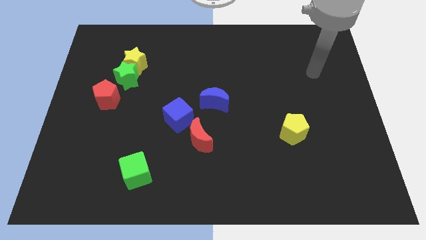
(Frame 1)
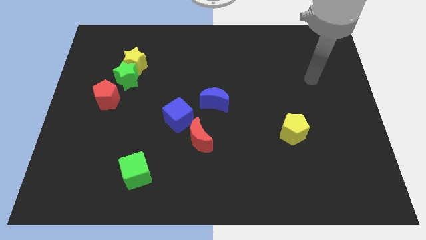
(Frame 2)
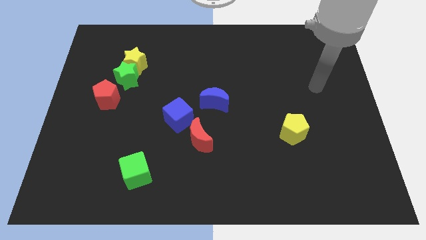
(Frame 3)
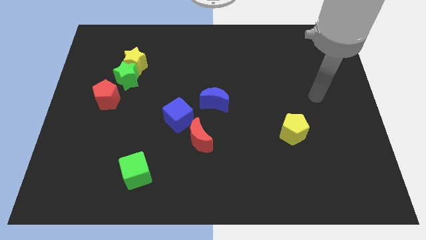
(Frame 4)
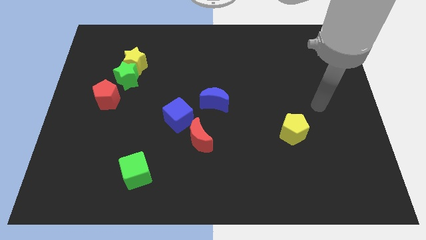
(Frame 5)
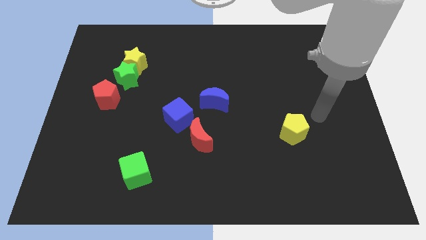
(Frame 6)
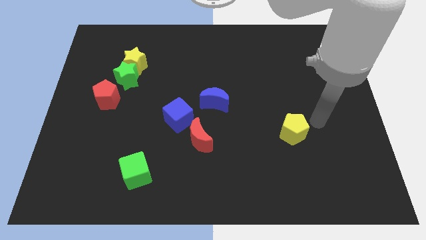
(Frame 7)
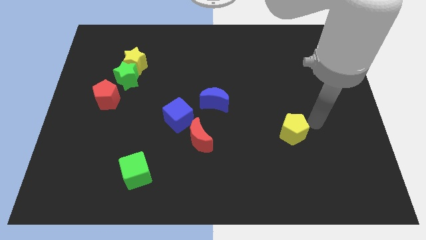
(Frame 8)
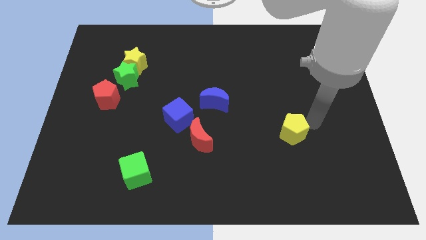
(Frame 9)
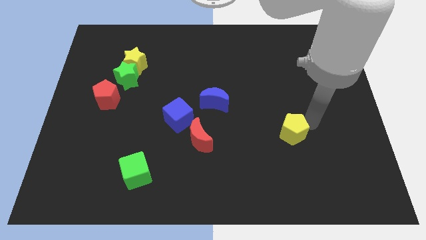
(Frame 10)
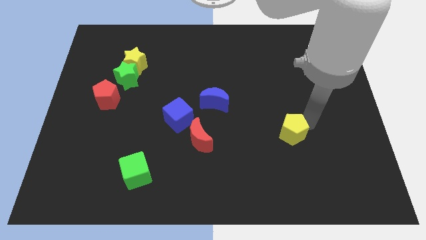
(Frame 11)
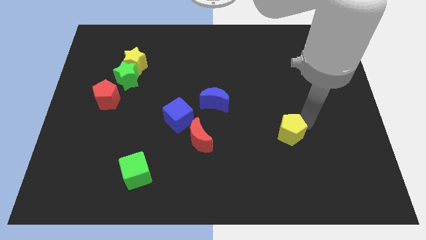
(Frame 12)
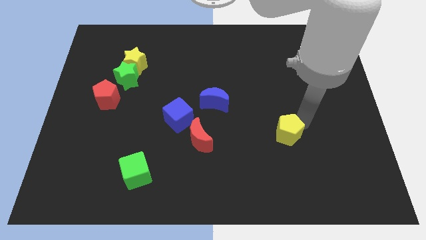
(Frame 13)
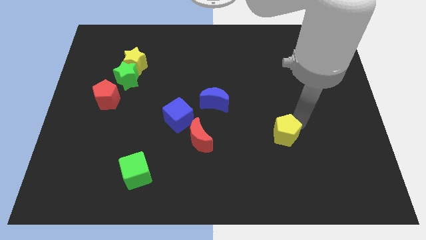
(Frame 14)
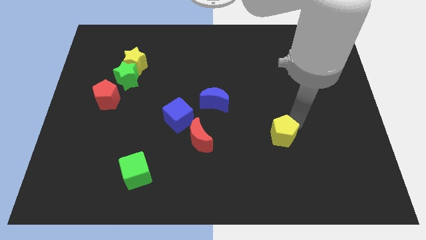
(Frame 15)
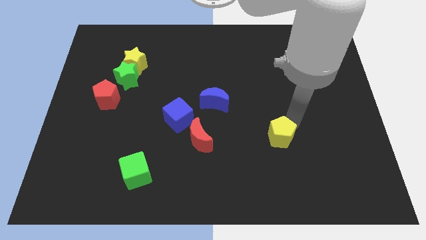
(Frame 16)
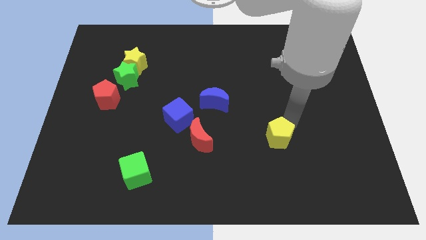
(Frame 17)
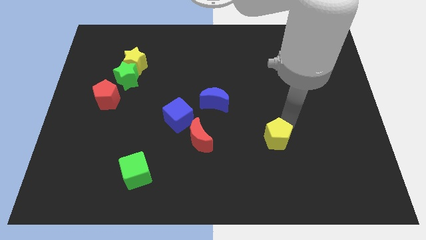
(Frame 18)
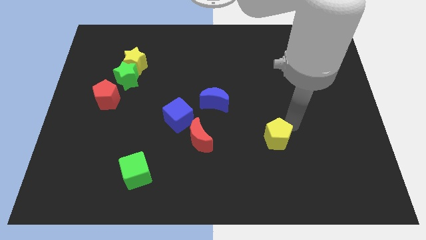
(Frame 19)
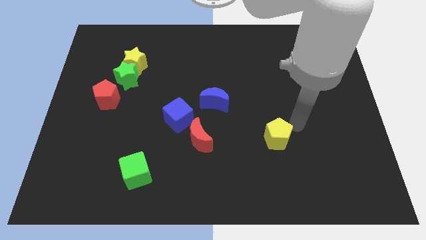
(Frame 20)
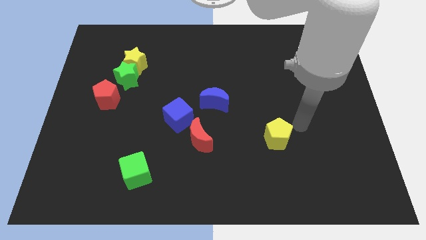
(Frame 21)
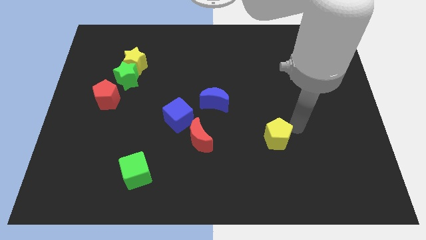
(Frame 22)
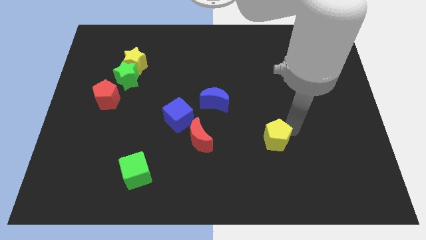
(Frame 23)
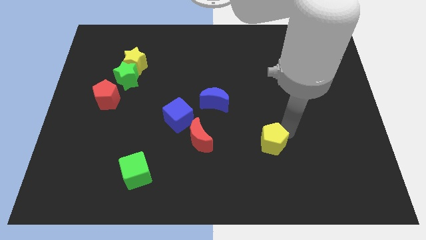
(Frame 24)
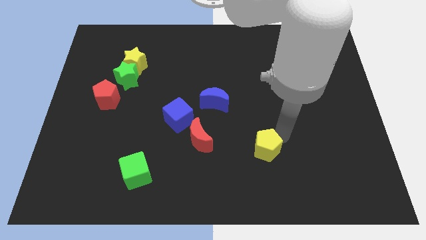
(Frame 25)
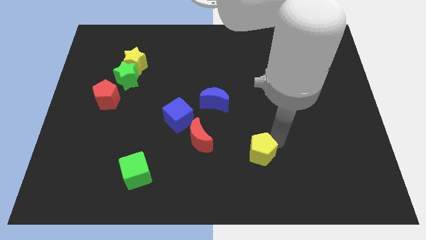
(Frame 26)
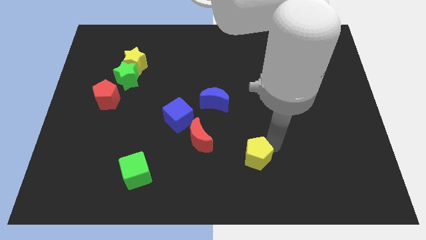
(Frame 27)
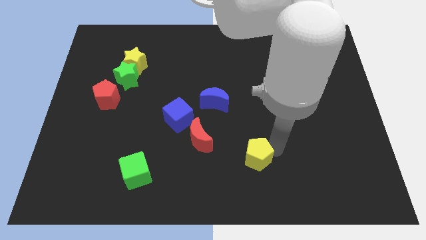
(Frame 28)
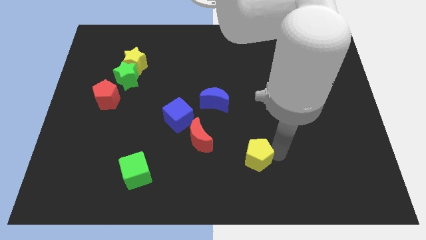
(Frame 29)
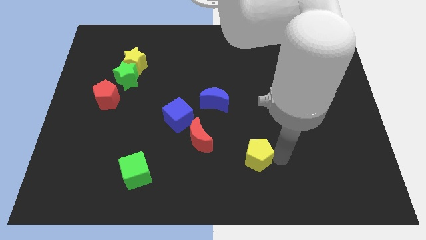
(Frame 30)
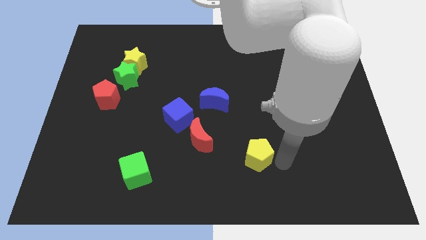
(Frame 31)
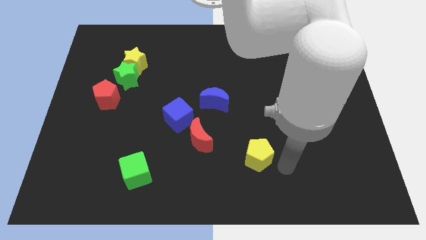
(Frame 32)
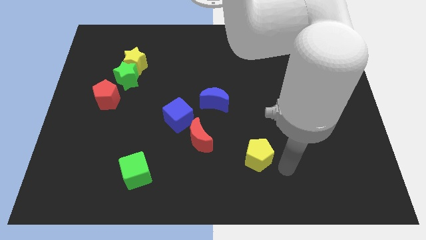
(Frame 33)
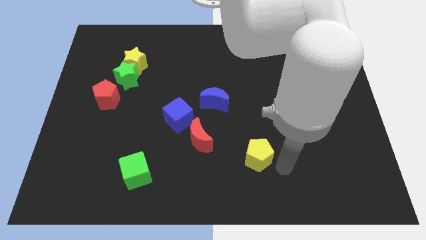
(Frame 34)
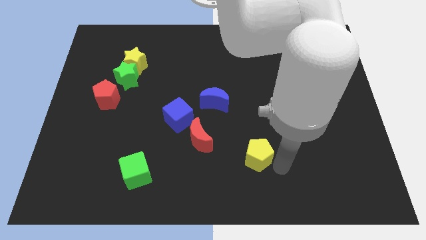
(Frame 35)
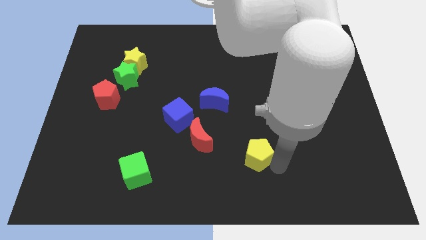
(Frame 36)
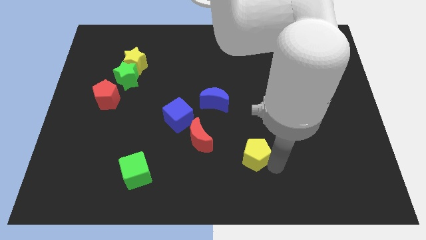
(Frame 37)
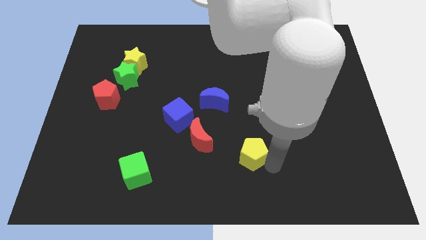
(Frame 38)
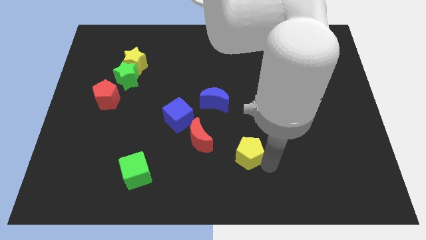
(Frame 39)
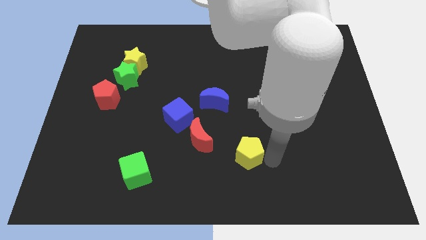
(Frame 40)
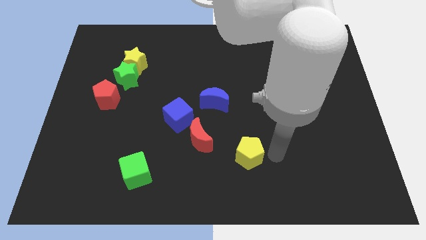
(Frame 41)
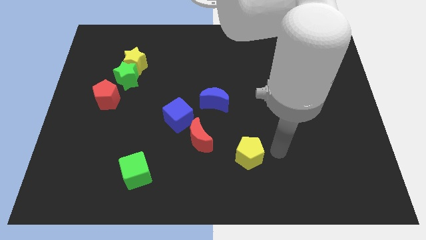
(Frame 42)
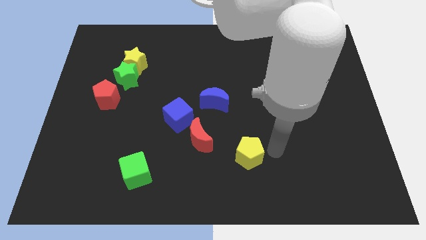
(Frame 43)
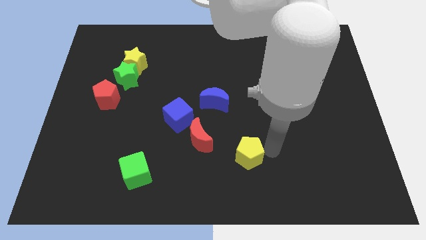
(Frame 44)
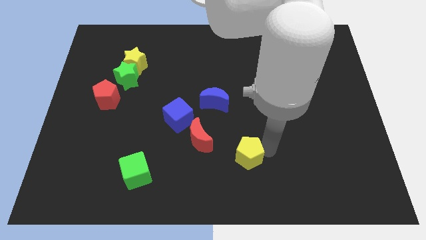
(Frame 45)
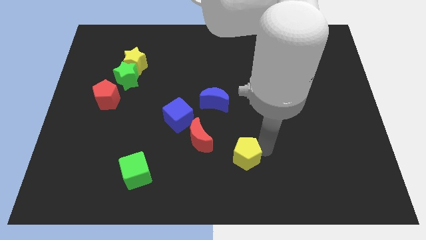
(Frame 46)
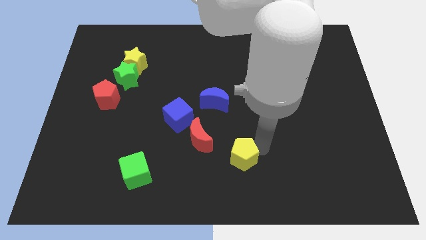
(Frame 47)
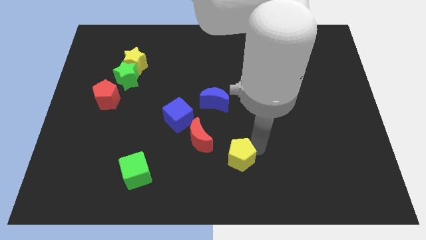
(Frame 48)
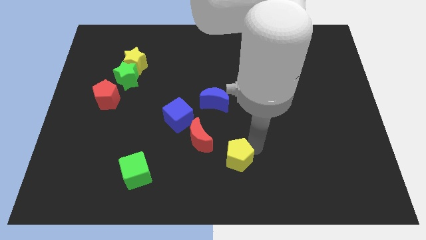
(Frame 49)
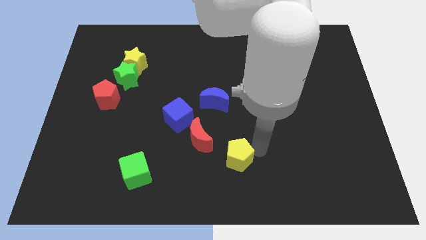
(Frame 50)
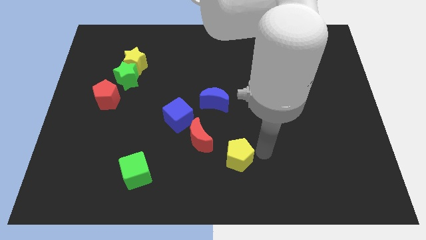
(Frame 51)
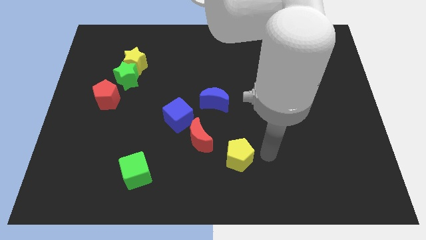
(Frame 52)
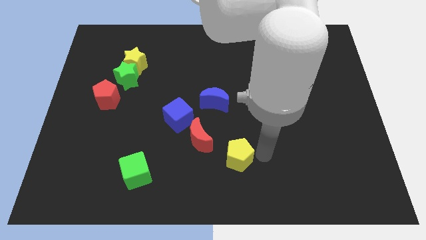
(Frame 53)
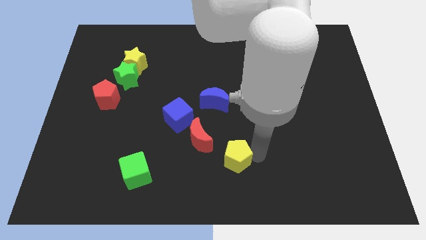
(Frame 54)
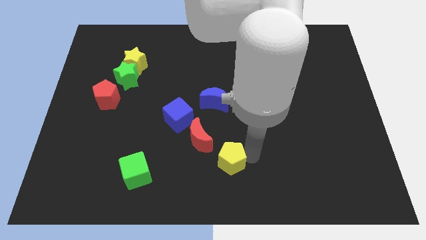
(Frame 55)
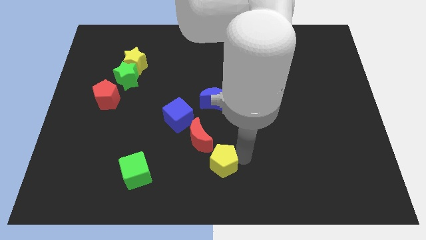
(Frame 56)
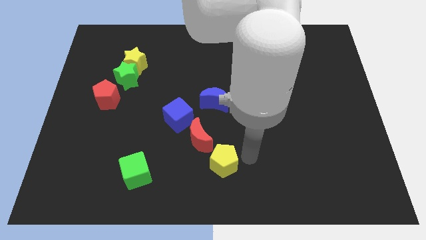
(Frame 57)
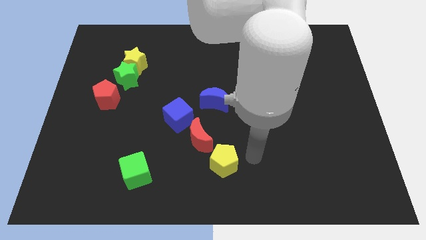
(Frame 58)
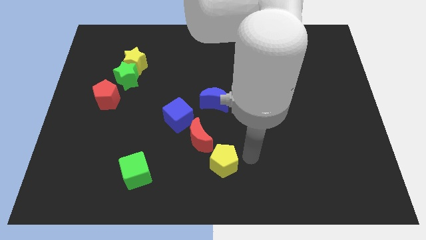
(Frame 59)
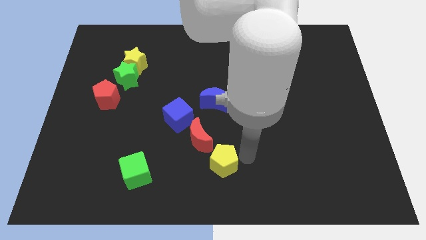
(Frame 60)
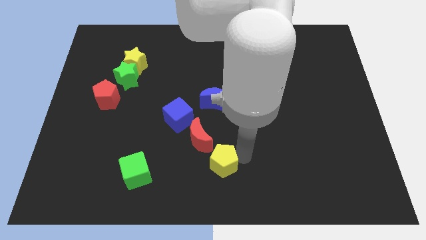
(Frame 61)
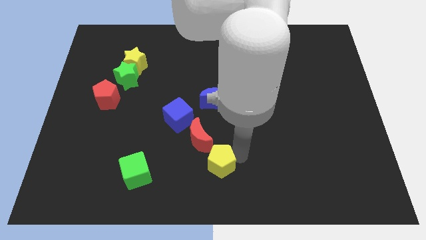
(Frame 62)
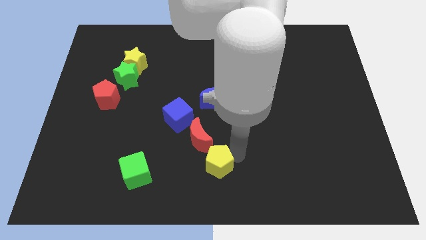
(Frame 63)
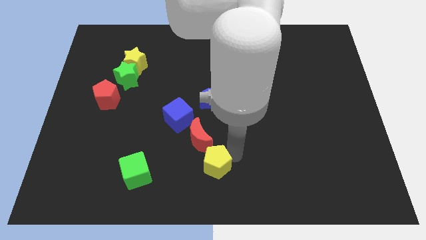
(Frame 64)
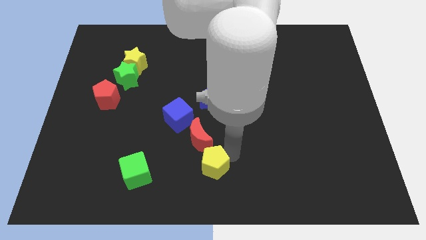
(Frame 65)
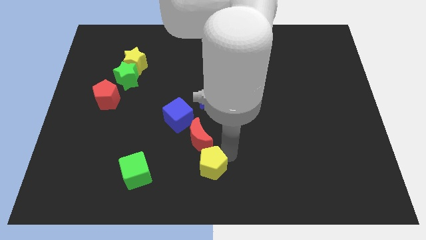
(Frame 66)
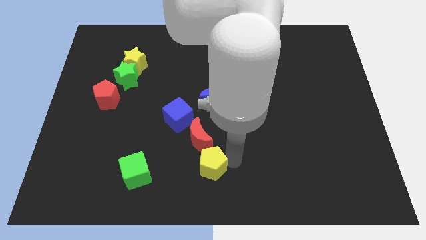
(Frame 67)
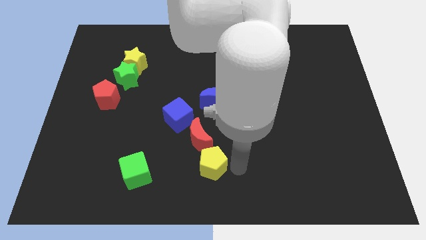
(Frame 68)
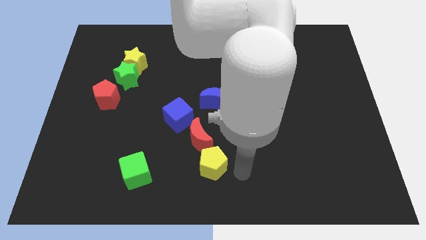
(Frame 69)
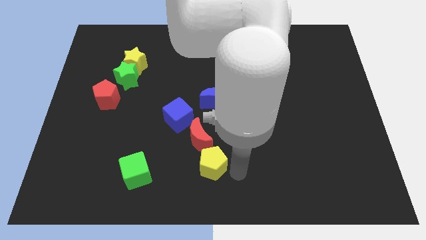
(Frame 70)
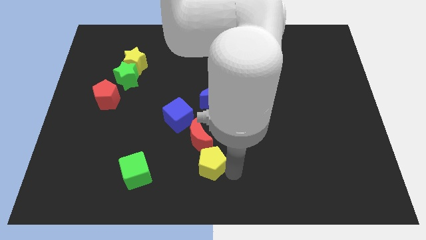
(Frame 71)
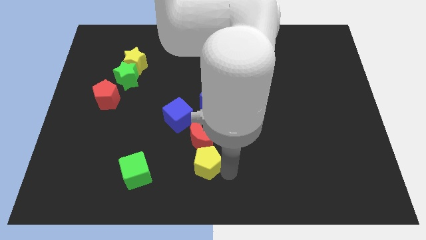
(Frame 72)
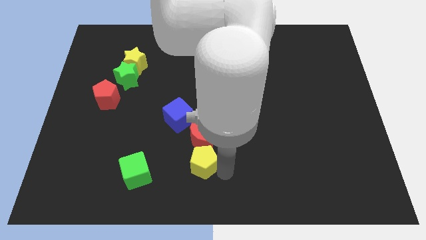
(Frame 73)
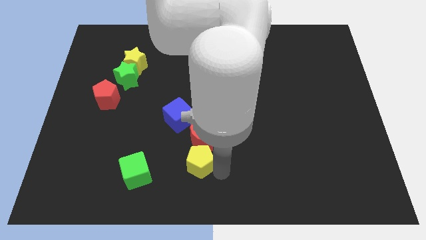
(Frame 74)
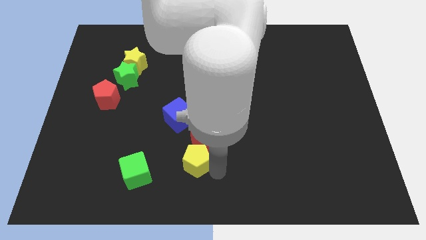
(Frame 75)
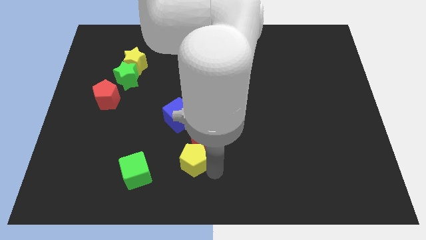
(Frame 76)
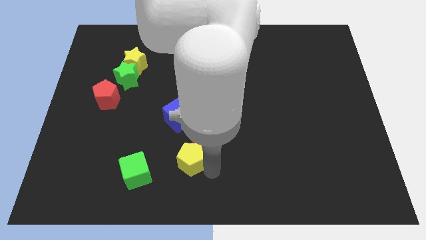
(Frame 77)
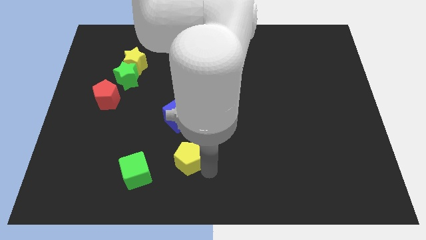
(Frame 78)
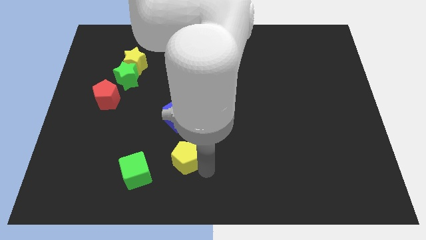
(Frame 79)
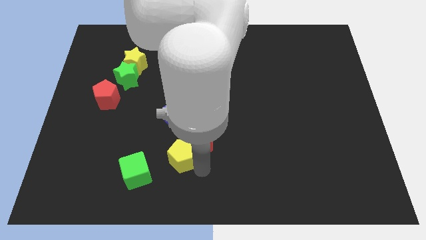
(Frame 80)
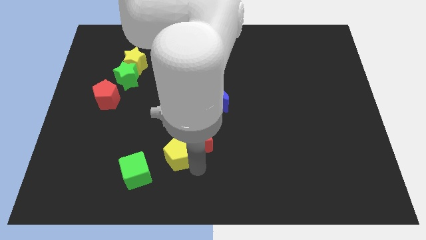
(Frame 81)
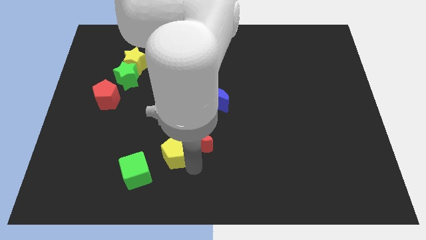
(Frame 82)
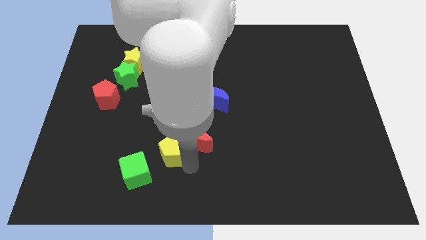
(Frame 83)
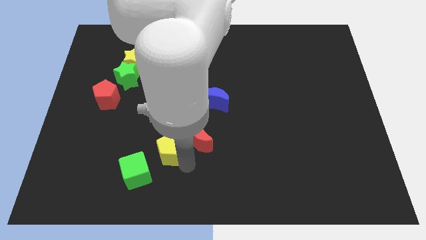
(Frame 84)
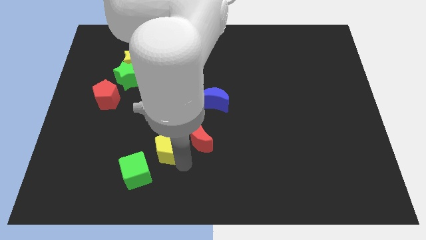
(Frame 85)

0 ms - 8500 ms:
slide the yellow pentagon to the bottom left of the blue cube
